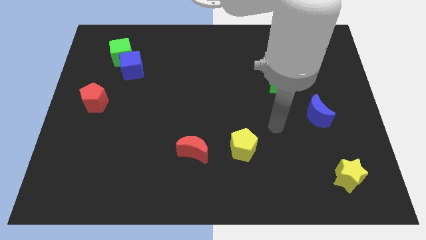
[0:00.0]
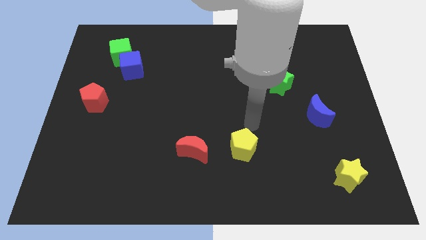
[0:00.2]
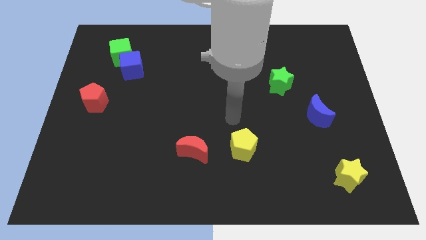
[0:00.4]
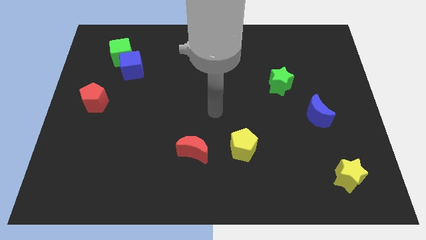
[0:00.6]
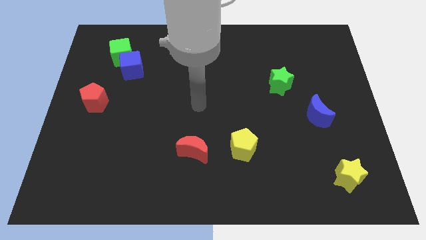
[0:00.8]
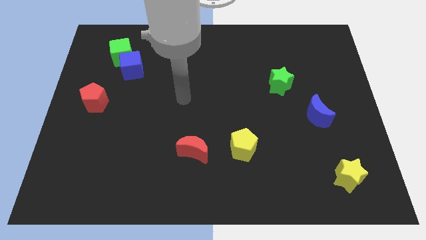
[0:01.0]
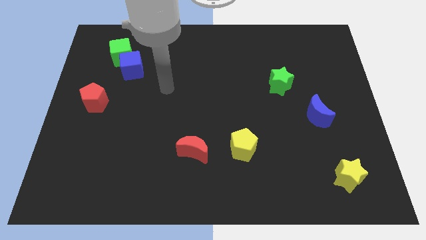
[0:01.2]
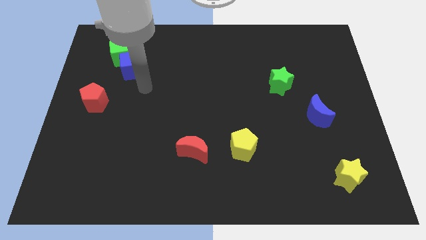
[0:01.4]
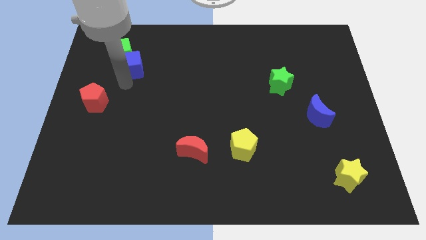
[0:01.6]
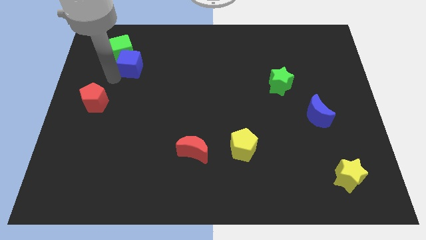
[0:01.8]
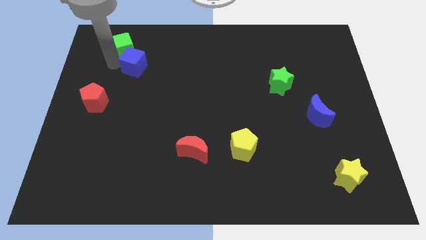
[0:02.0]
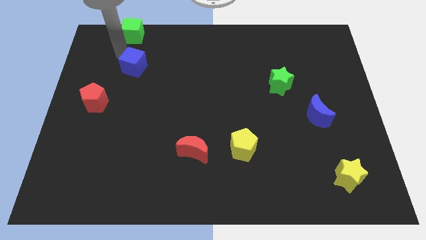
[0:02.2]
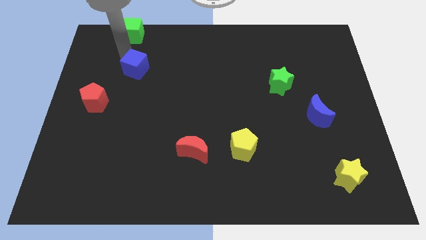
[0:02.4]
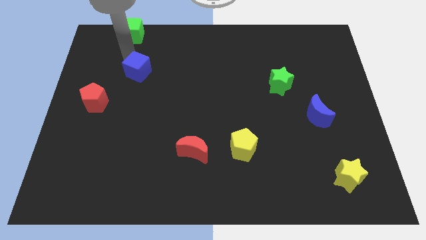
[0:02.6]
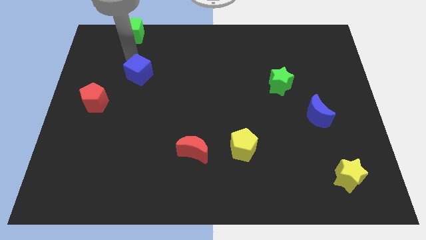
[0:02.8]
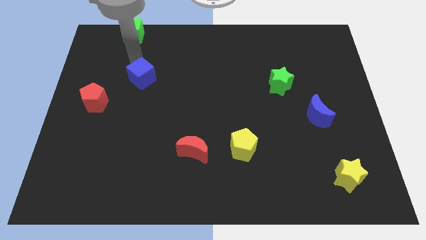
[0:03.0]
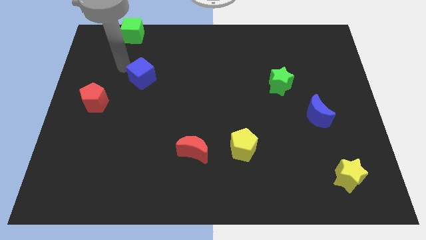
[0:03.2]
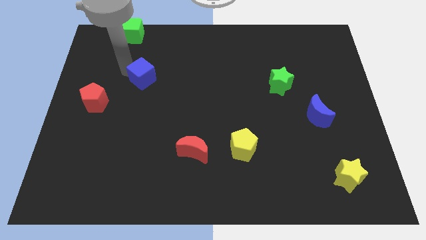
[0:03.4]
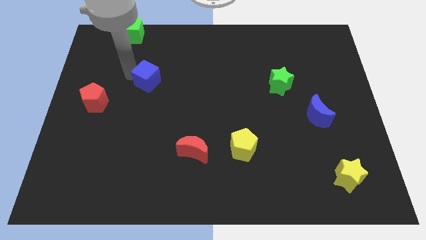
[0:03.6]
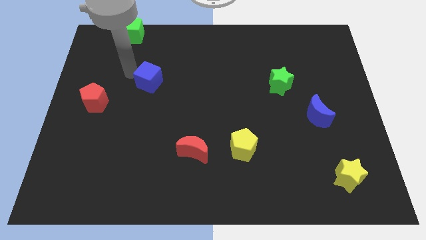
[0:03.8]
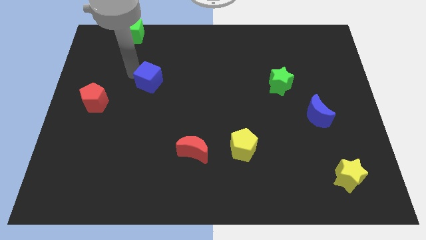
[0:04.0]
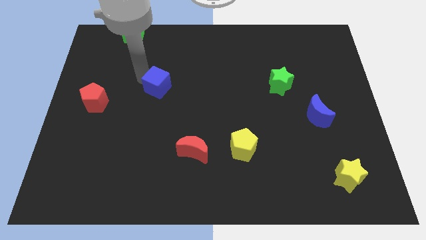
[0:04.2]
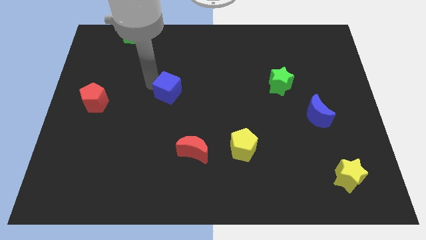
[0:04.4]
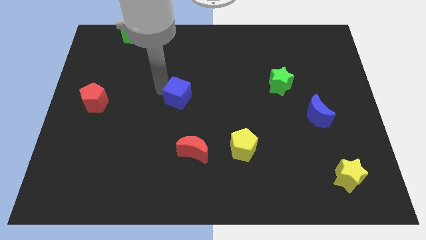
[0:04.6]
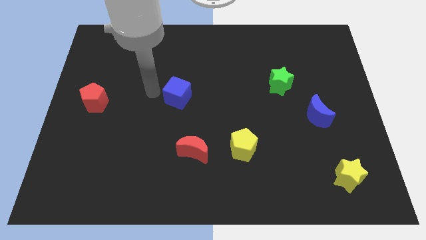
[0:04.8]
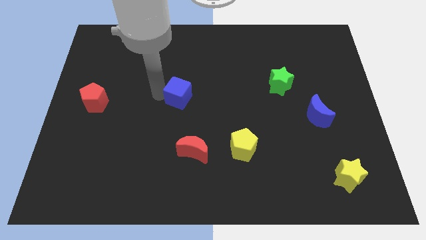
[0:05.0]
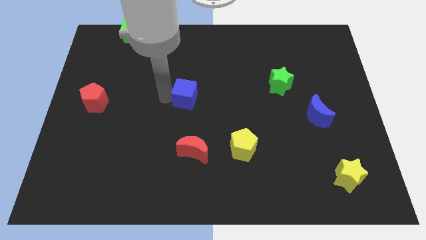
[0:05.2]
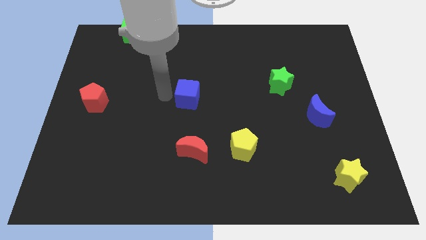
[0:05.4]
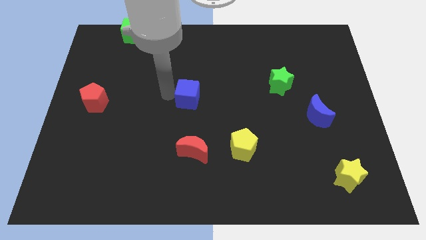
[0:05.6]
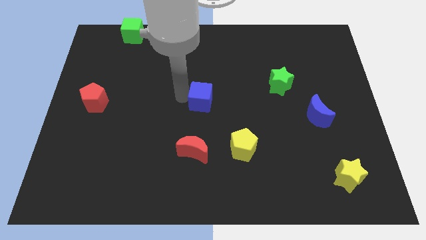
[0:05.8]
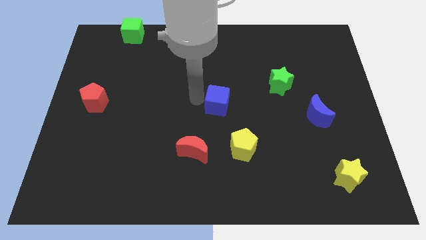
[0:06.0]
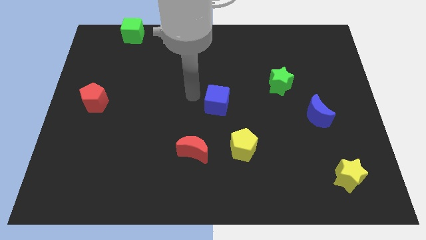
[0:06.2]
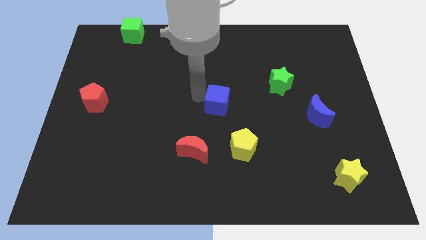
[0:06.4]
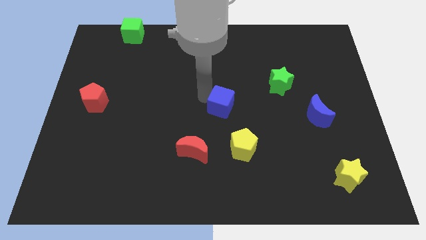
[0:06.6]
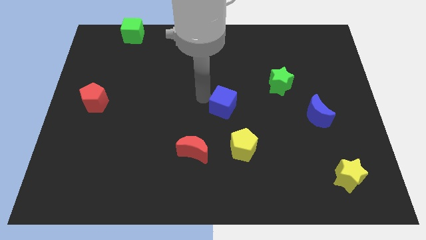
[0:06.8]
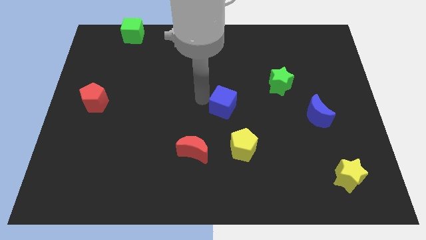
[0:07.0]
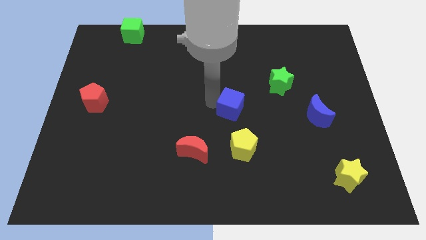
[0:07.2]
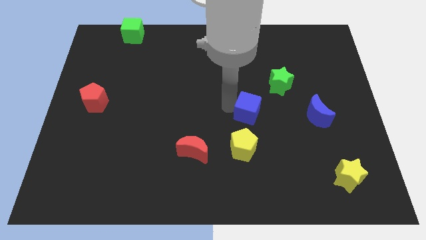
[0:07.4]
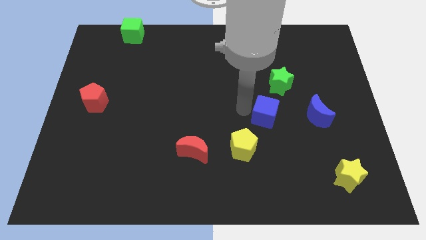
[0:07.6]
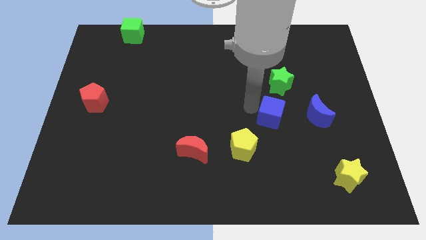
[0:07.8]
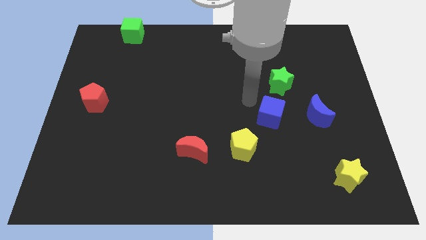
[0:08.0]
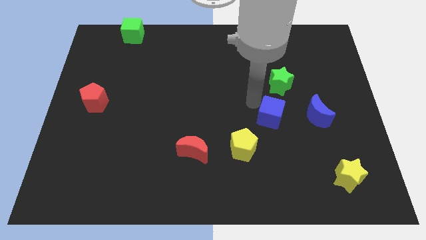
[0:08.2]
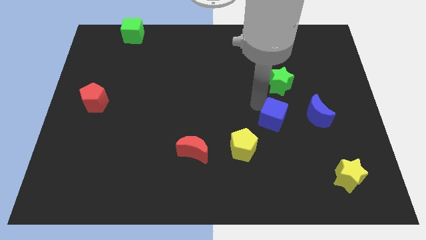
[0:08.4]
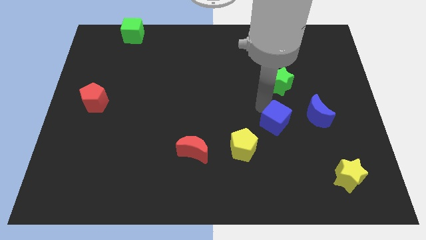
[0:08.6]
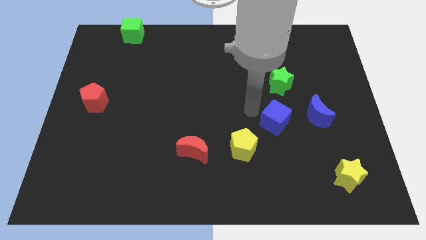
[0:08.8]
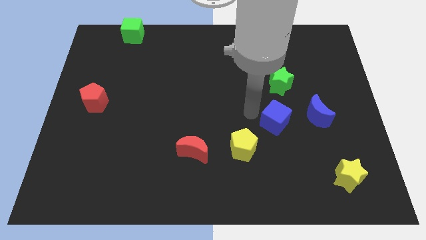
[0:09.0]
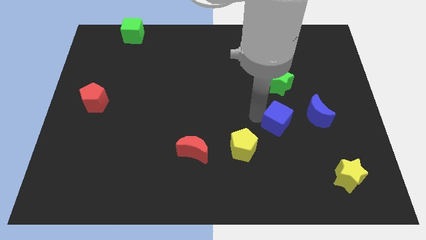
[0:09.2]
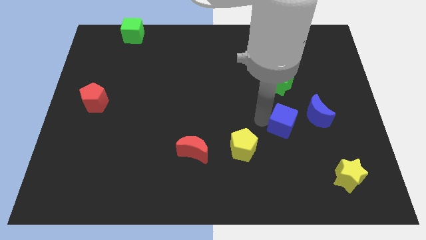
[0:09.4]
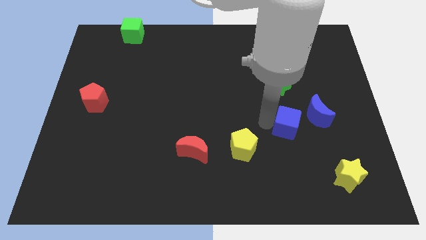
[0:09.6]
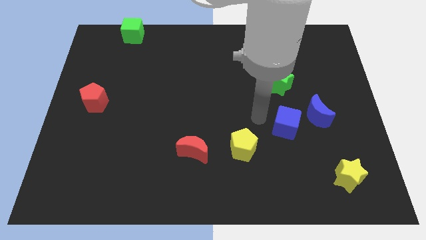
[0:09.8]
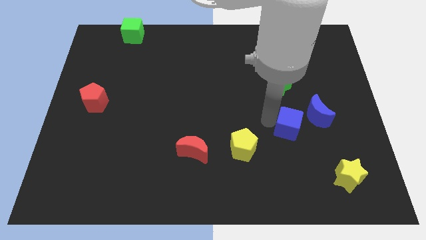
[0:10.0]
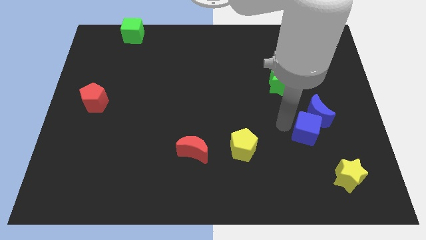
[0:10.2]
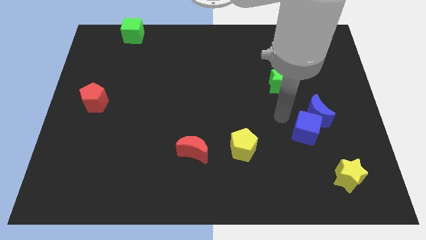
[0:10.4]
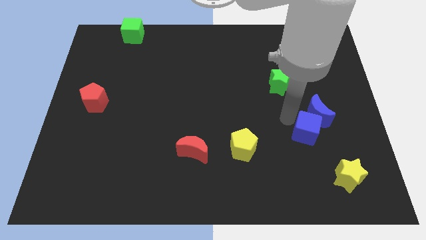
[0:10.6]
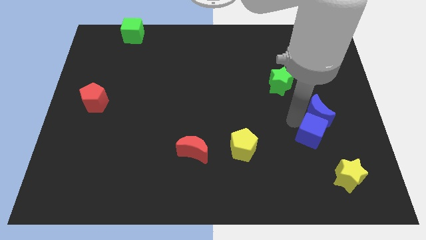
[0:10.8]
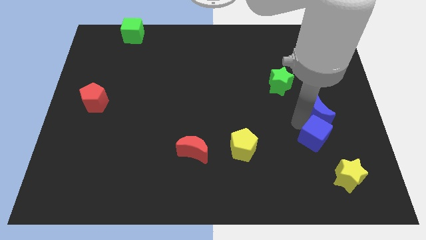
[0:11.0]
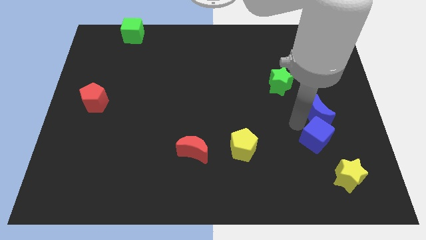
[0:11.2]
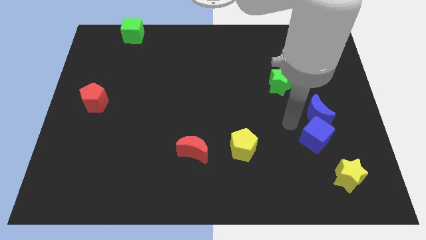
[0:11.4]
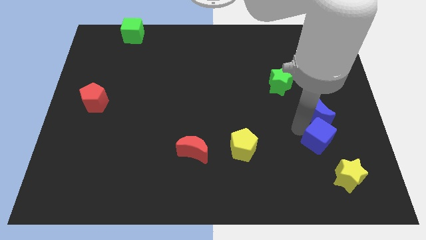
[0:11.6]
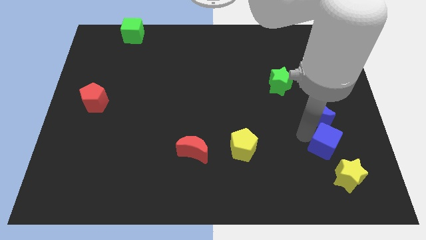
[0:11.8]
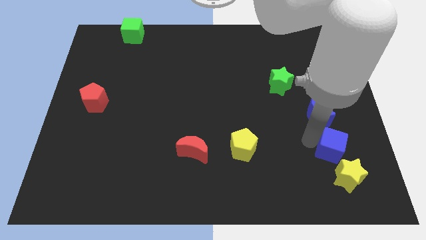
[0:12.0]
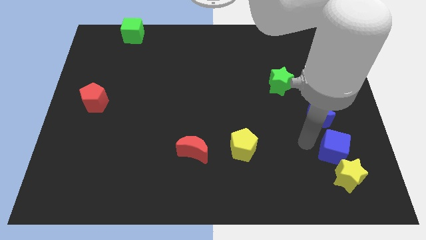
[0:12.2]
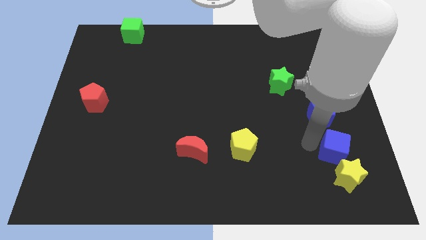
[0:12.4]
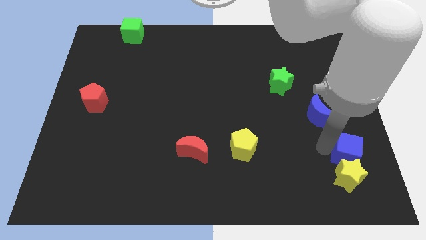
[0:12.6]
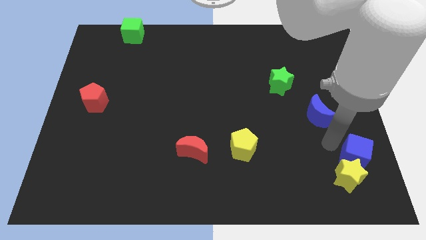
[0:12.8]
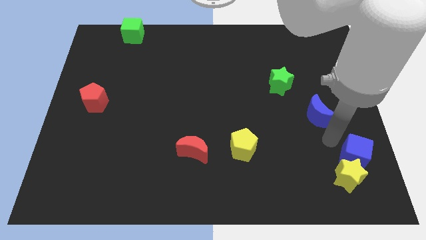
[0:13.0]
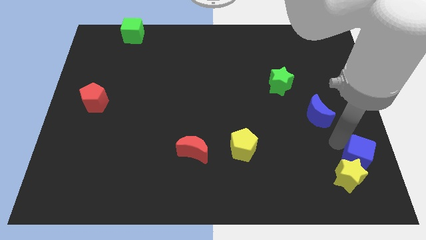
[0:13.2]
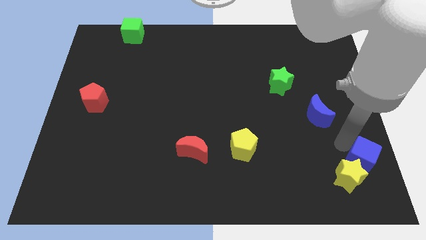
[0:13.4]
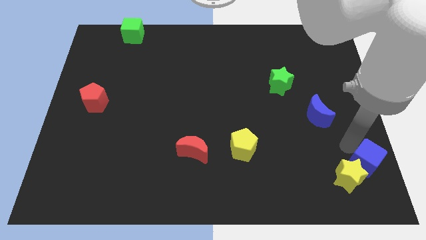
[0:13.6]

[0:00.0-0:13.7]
slide the blue cube to the bottom right

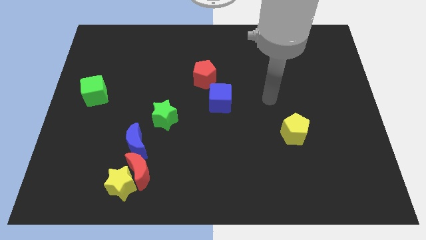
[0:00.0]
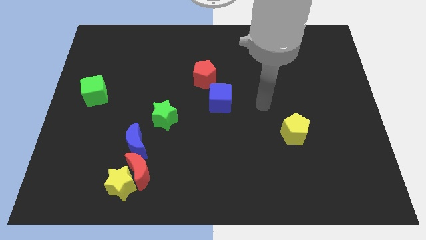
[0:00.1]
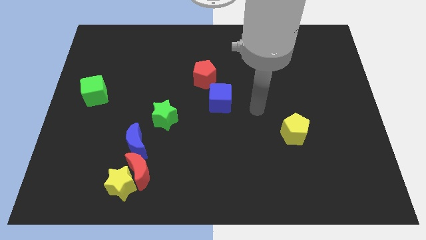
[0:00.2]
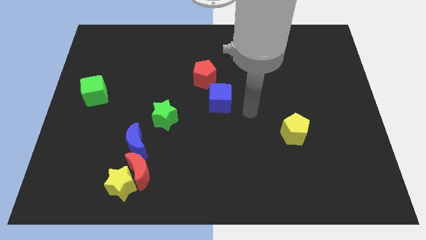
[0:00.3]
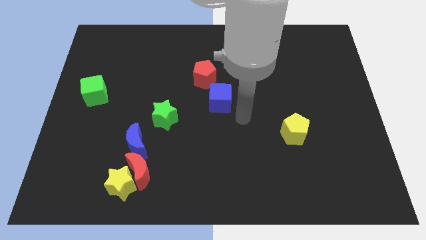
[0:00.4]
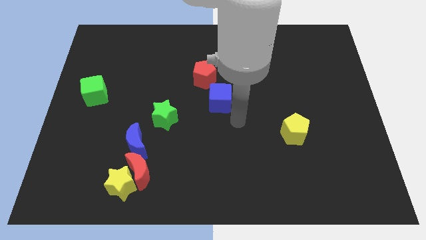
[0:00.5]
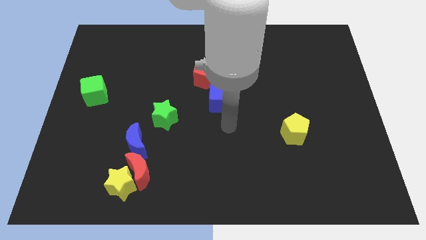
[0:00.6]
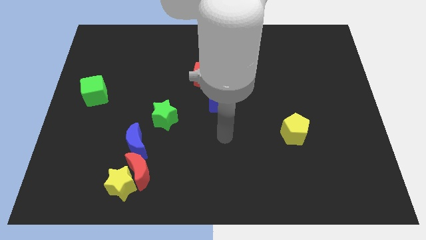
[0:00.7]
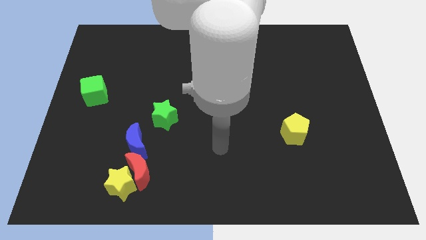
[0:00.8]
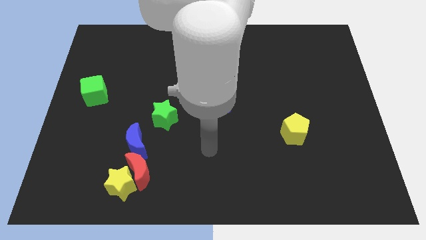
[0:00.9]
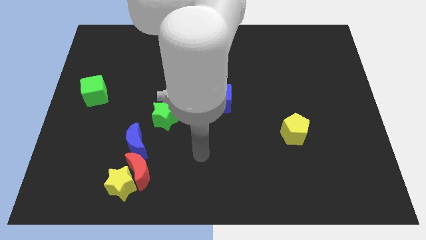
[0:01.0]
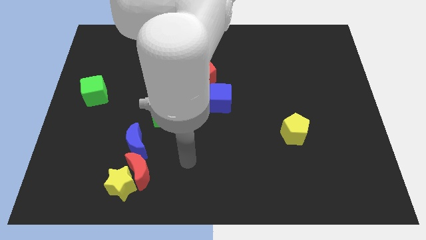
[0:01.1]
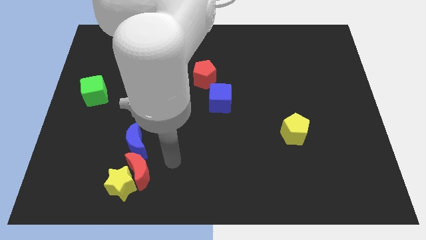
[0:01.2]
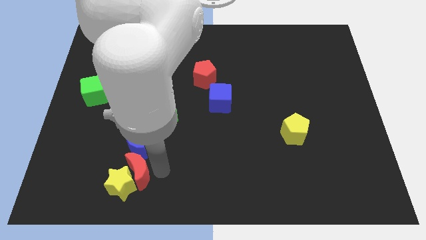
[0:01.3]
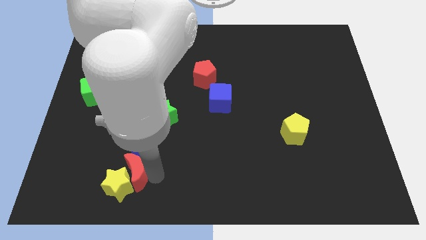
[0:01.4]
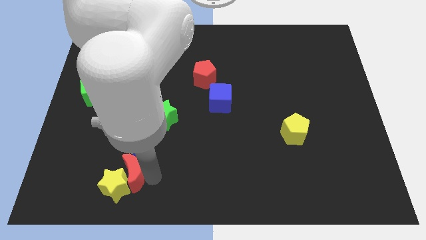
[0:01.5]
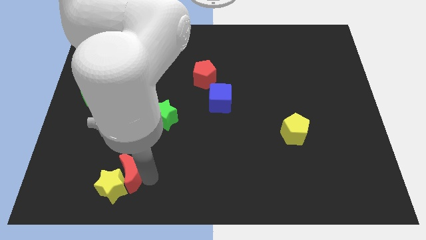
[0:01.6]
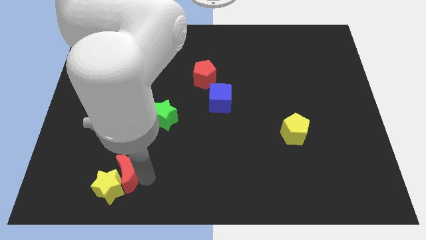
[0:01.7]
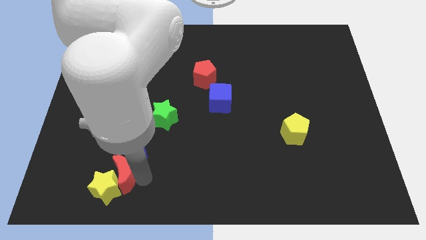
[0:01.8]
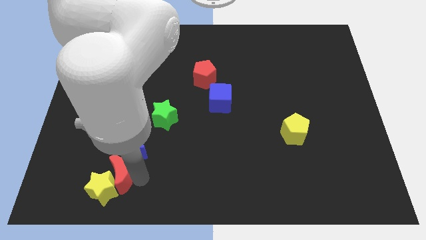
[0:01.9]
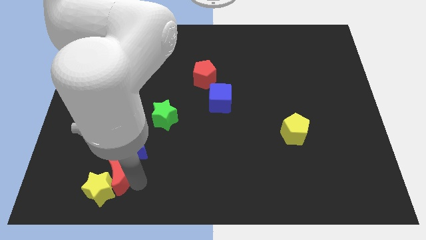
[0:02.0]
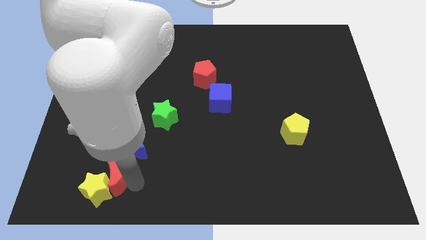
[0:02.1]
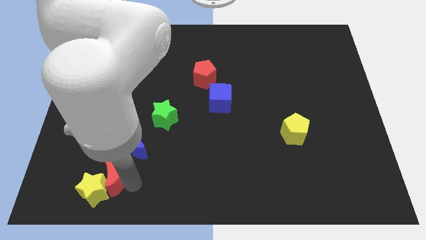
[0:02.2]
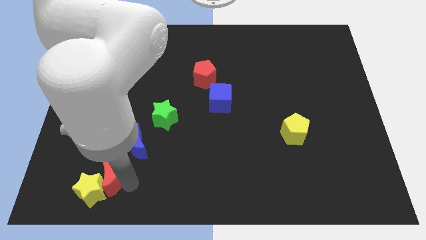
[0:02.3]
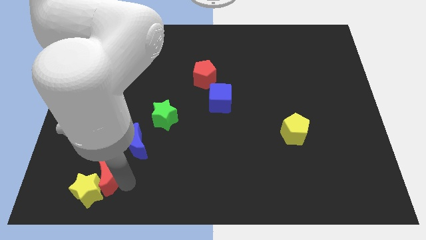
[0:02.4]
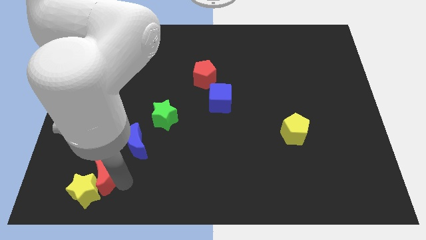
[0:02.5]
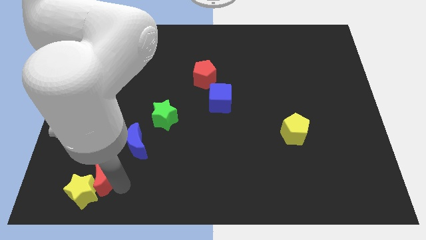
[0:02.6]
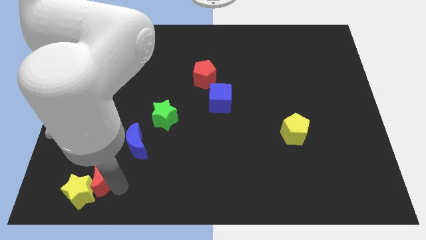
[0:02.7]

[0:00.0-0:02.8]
move the yellow star to the bottom left corner
